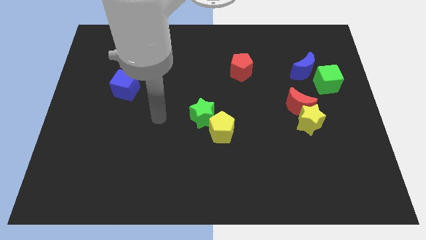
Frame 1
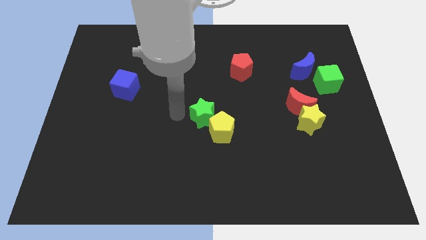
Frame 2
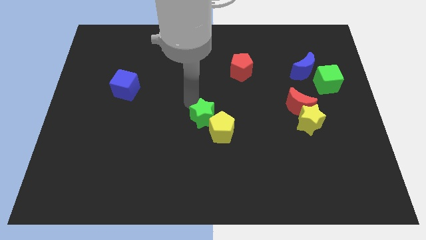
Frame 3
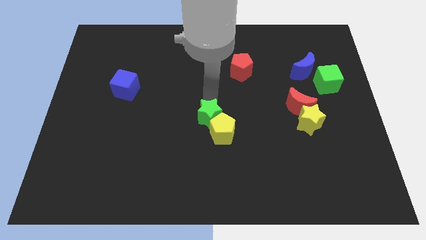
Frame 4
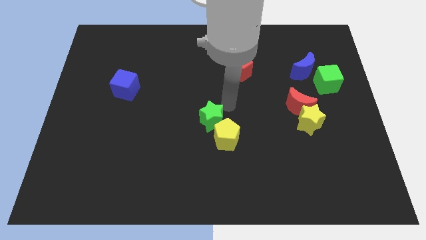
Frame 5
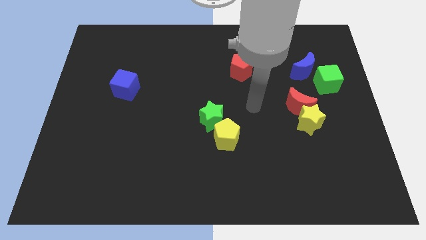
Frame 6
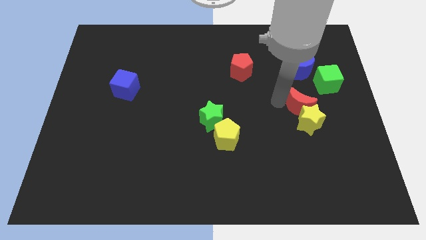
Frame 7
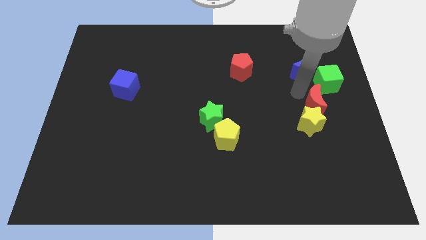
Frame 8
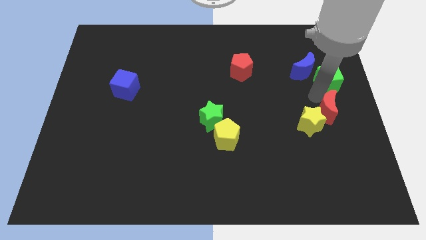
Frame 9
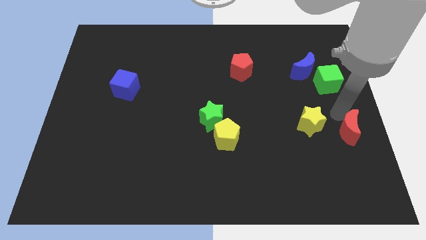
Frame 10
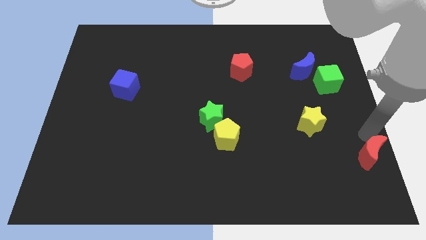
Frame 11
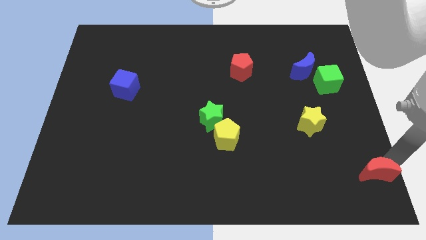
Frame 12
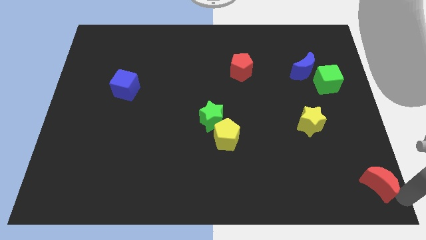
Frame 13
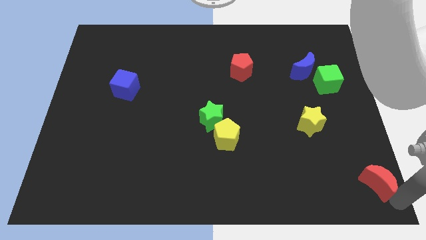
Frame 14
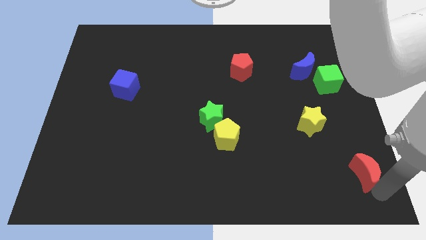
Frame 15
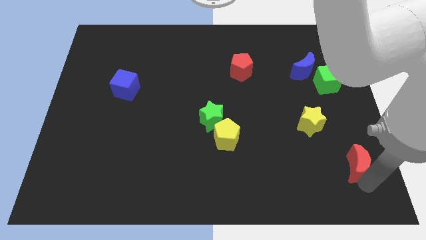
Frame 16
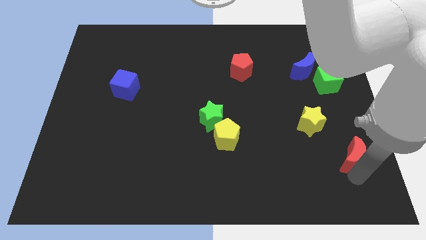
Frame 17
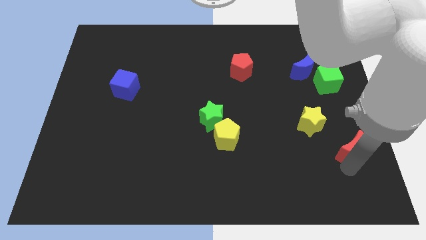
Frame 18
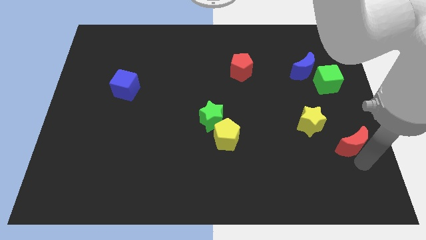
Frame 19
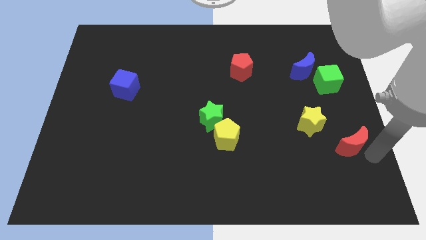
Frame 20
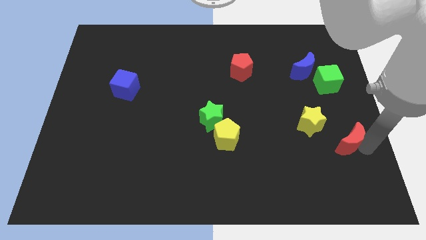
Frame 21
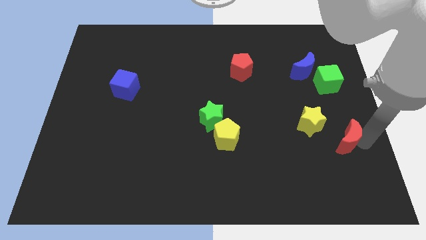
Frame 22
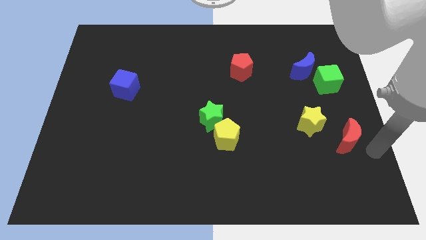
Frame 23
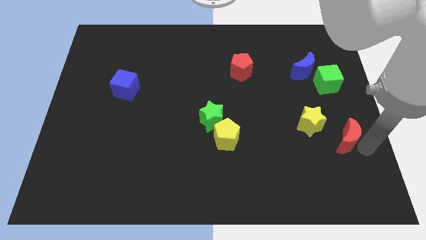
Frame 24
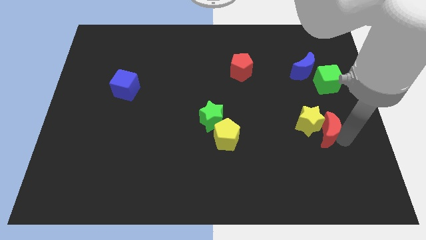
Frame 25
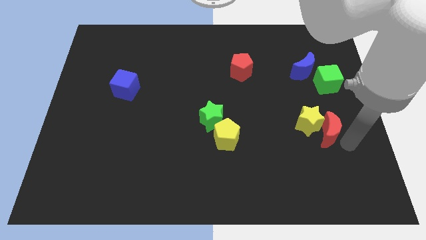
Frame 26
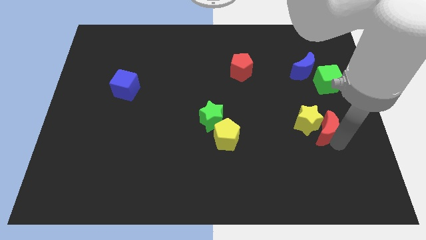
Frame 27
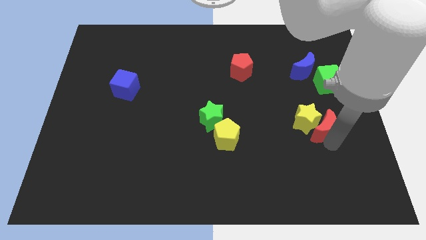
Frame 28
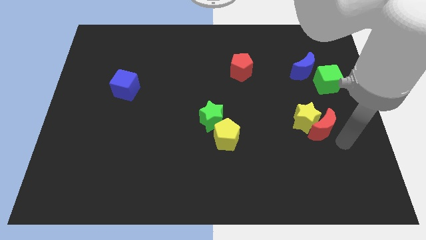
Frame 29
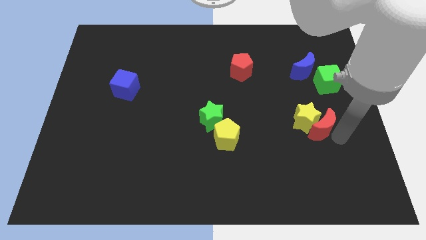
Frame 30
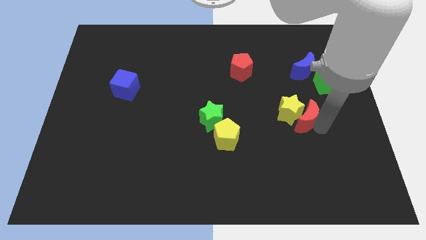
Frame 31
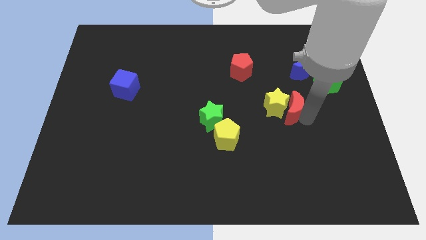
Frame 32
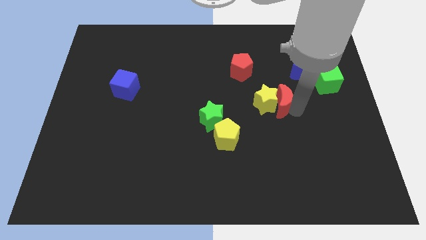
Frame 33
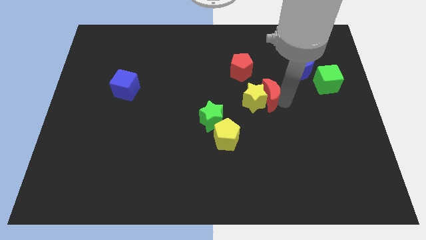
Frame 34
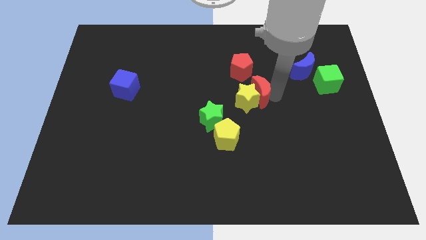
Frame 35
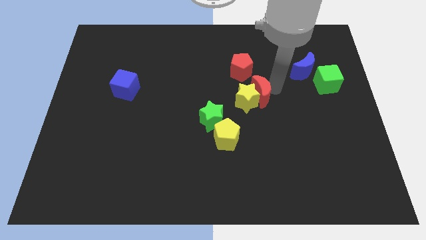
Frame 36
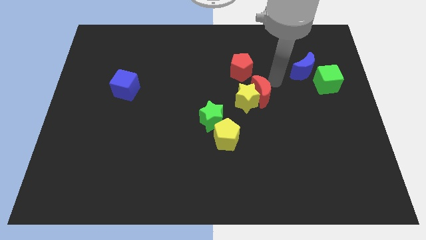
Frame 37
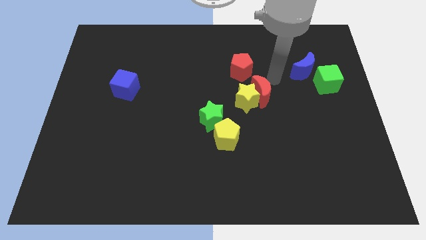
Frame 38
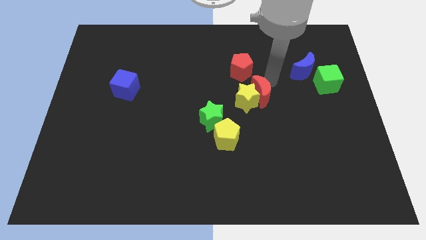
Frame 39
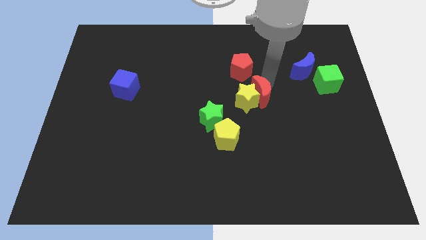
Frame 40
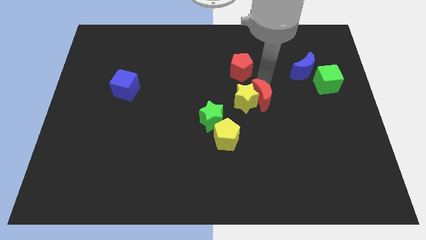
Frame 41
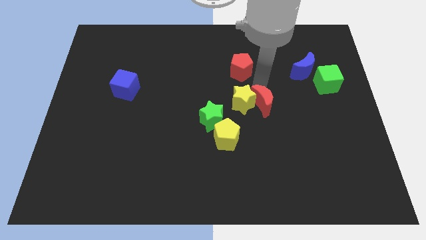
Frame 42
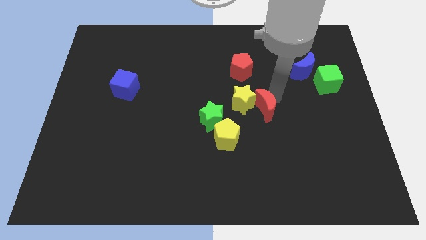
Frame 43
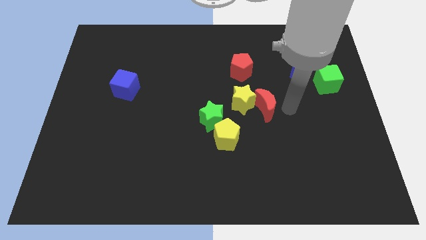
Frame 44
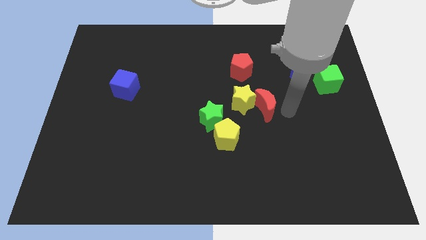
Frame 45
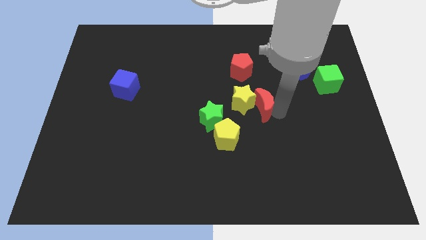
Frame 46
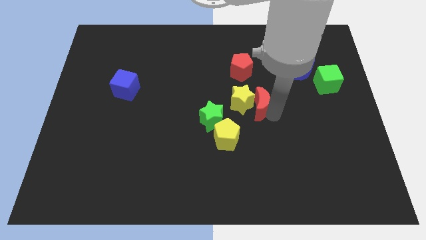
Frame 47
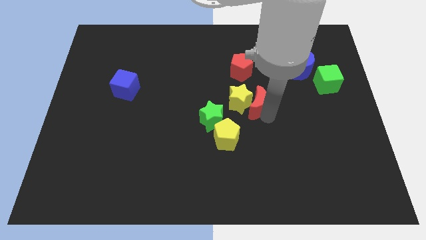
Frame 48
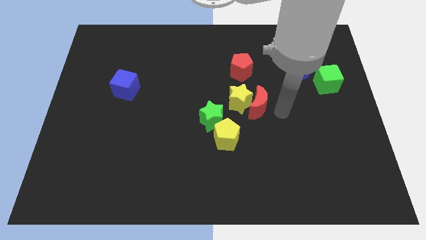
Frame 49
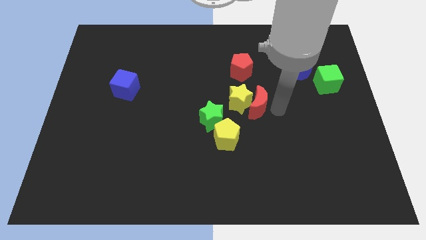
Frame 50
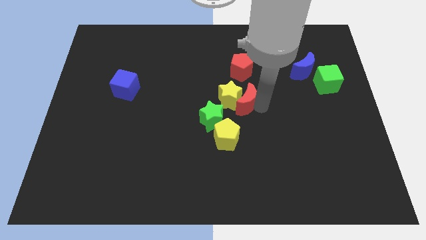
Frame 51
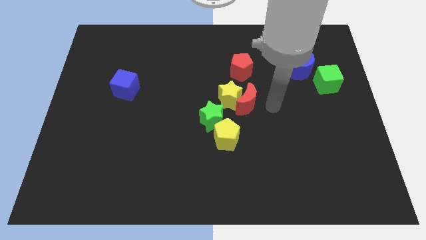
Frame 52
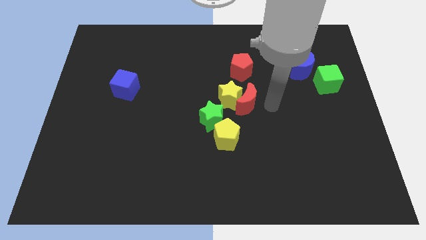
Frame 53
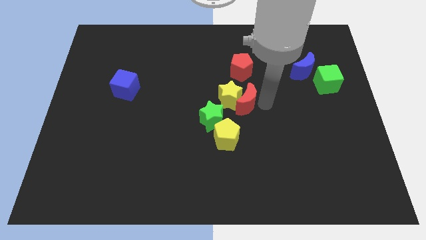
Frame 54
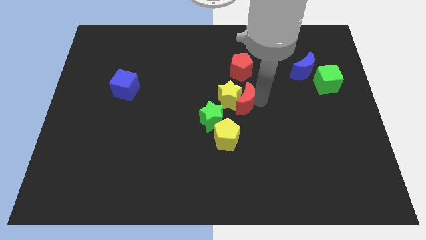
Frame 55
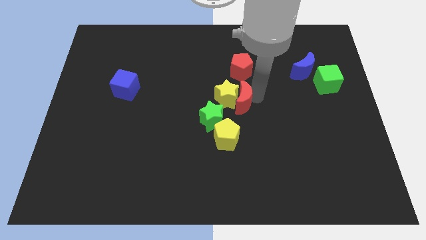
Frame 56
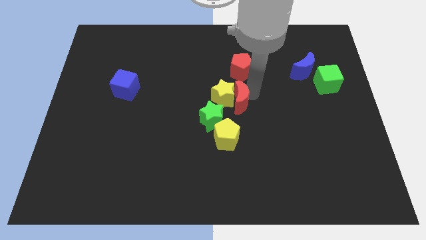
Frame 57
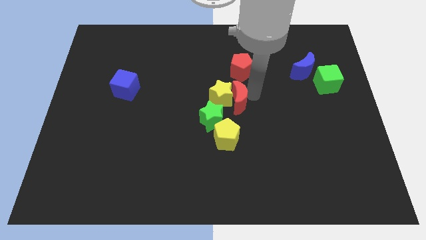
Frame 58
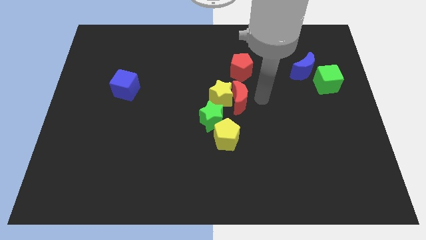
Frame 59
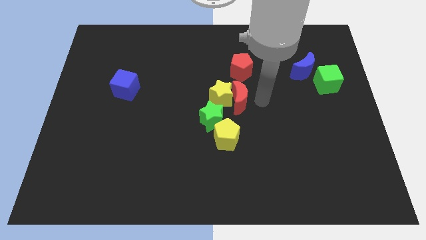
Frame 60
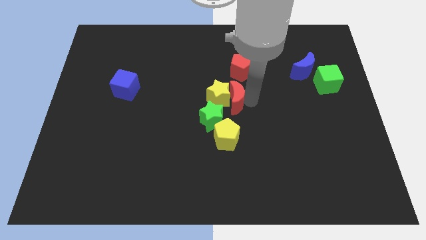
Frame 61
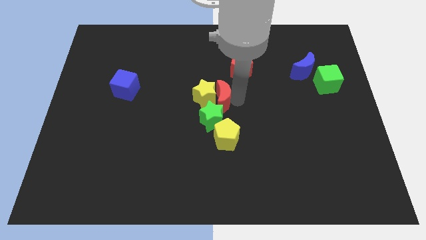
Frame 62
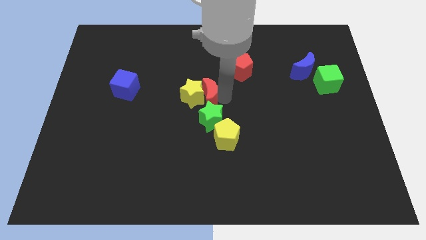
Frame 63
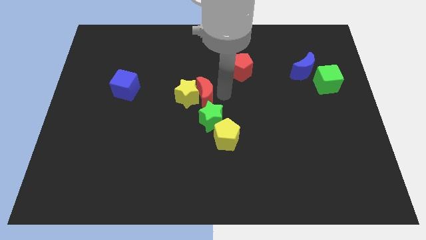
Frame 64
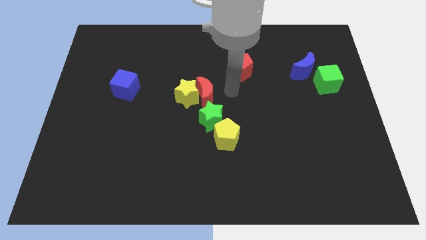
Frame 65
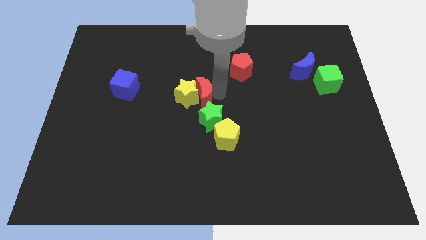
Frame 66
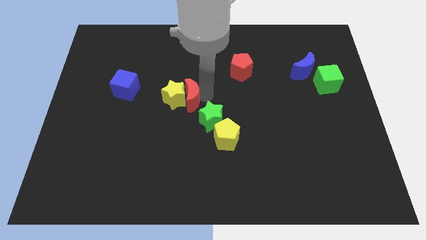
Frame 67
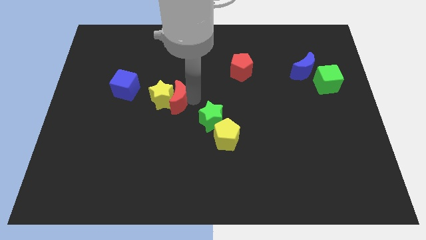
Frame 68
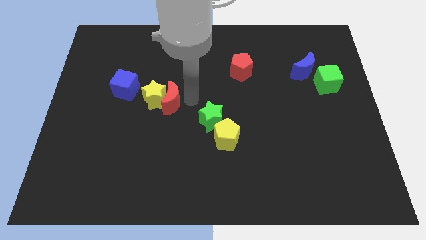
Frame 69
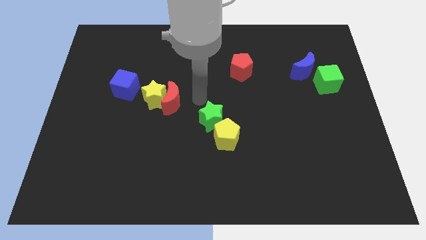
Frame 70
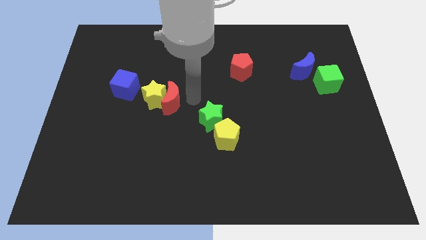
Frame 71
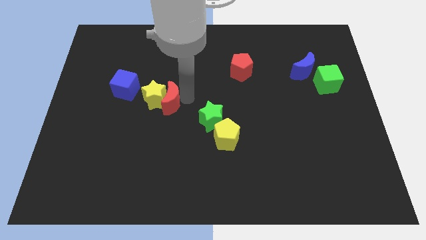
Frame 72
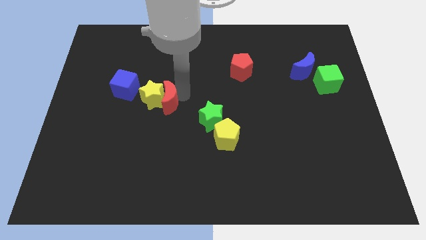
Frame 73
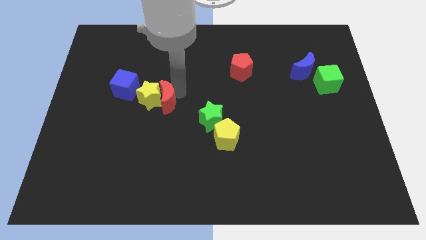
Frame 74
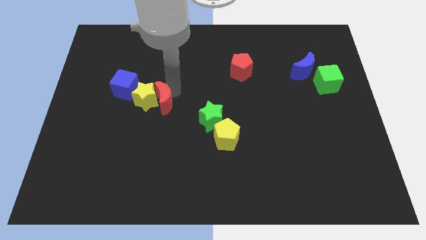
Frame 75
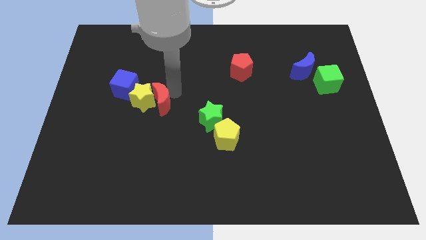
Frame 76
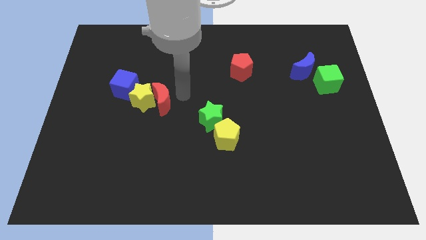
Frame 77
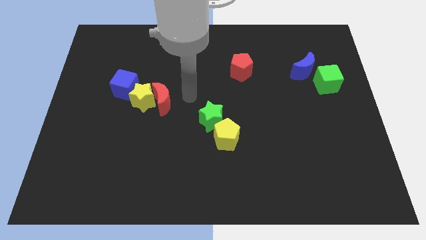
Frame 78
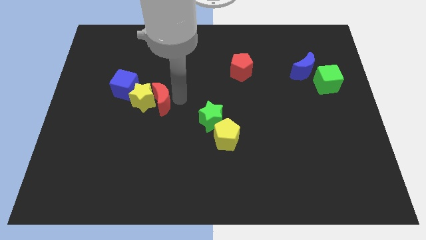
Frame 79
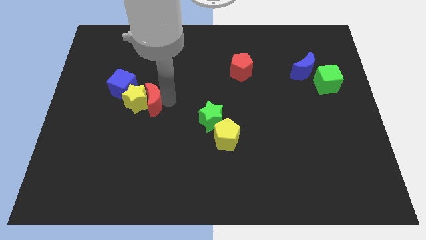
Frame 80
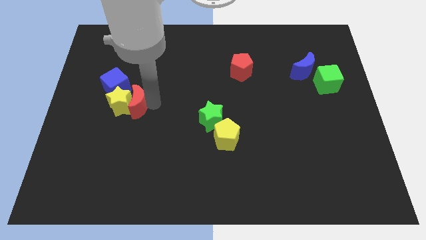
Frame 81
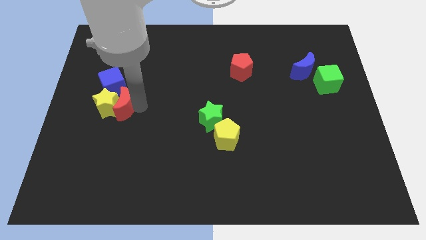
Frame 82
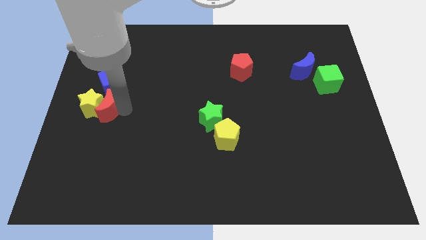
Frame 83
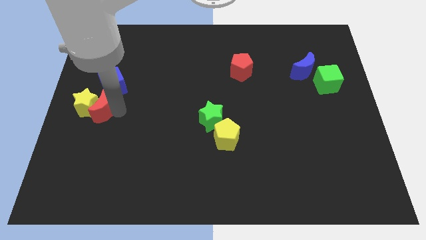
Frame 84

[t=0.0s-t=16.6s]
push the red moon to the center left
